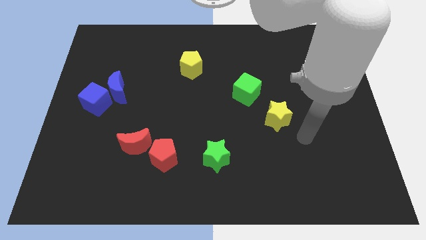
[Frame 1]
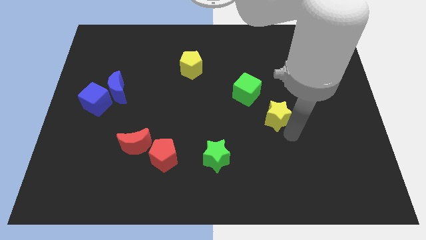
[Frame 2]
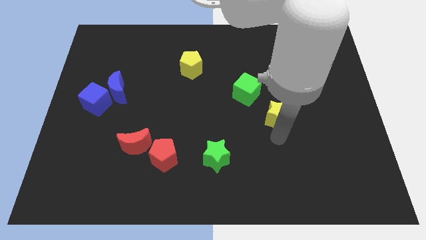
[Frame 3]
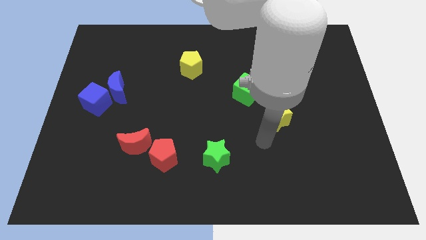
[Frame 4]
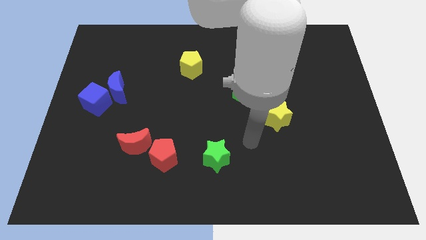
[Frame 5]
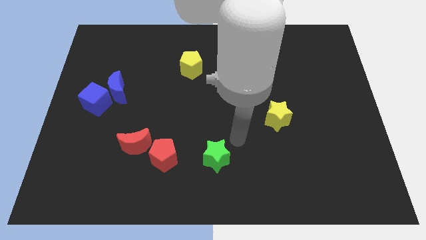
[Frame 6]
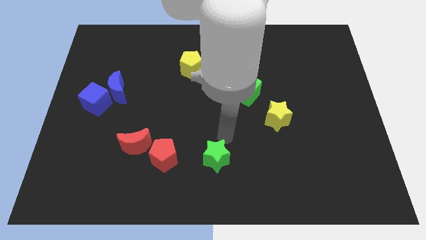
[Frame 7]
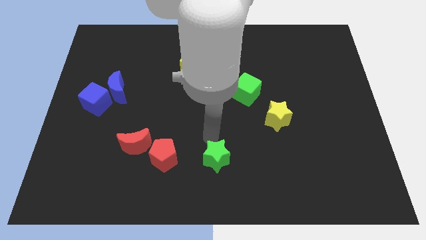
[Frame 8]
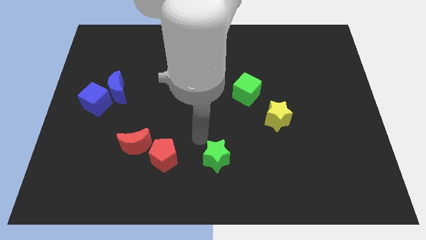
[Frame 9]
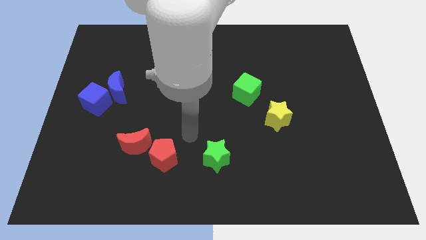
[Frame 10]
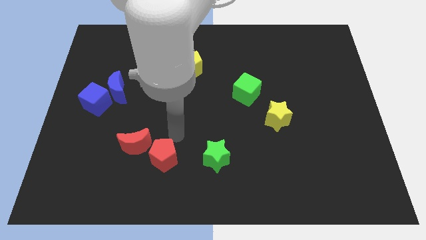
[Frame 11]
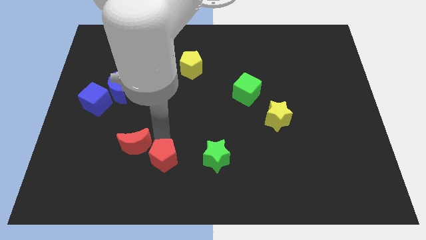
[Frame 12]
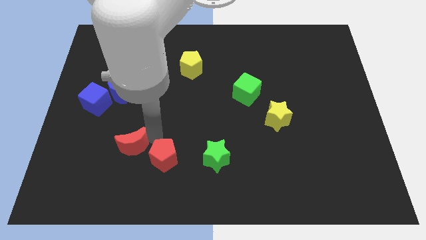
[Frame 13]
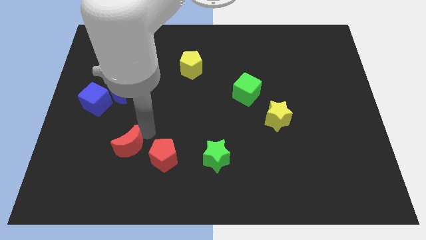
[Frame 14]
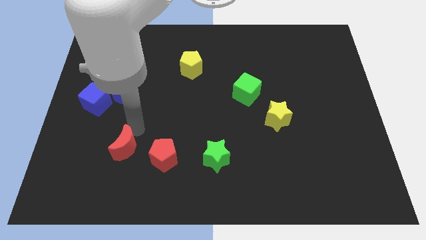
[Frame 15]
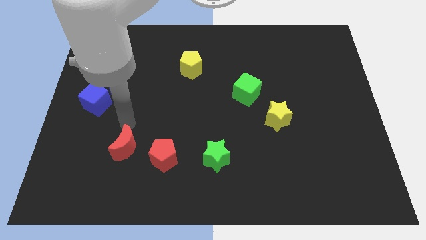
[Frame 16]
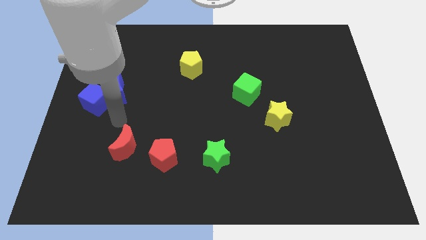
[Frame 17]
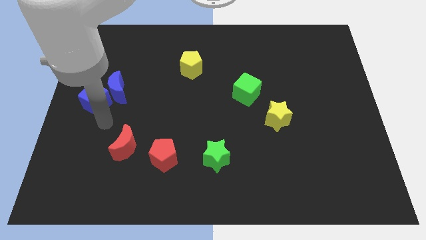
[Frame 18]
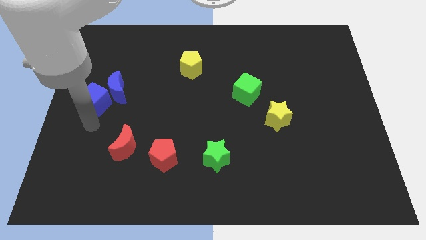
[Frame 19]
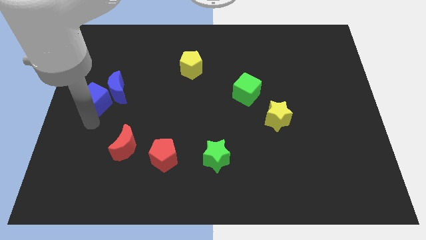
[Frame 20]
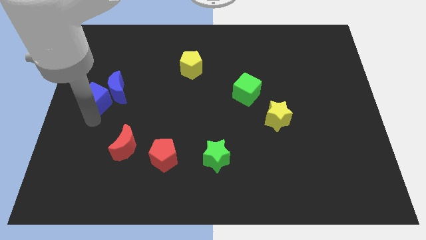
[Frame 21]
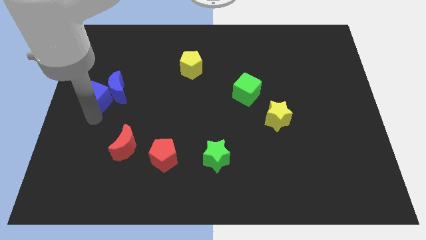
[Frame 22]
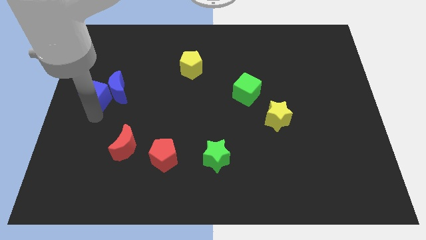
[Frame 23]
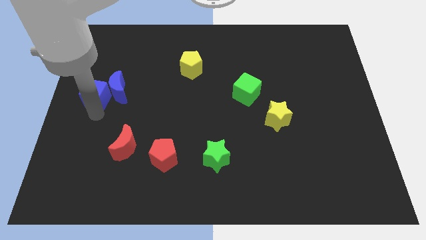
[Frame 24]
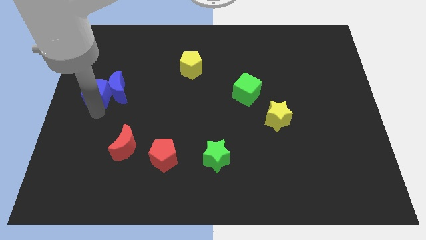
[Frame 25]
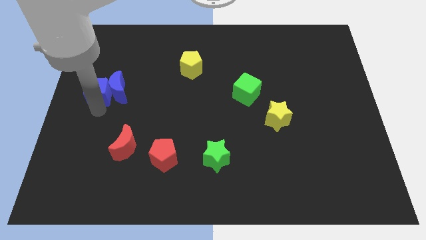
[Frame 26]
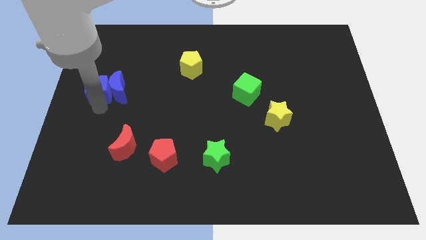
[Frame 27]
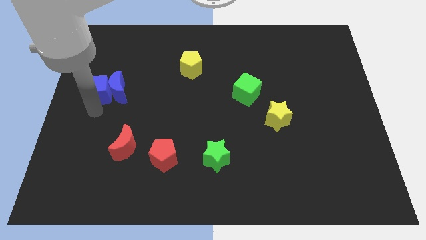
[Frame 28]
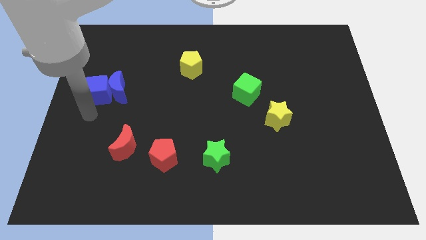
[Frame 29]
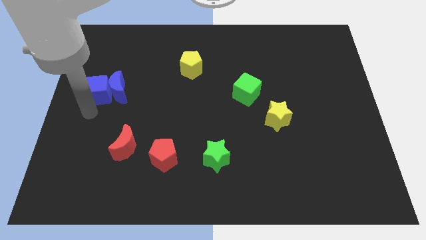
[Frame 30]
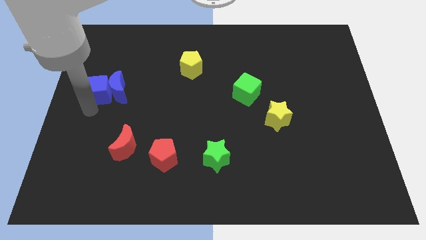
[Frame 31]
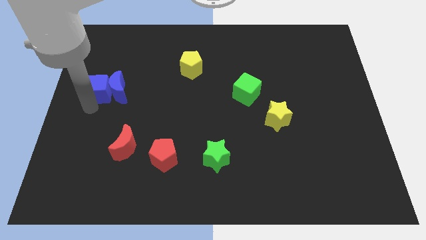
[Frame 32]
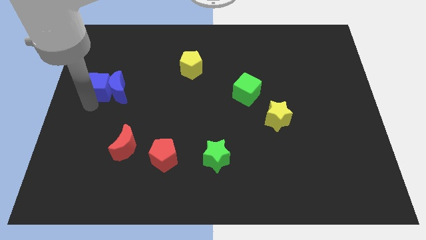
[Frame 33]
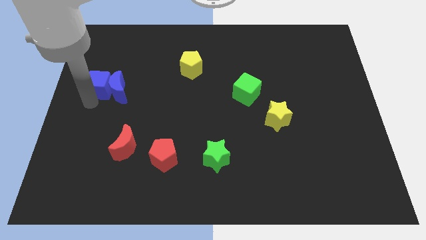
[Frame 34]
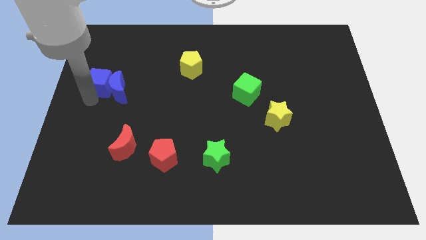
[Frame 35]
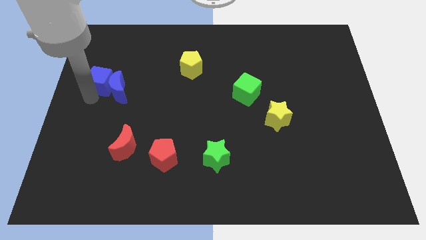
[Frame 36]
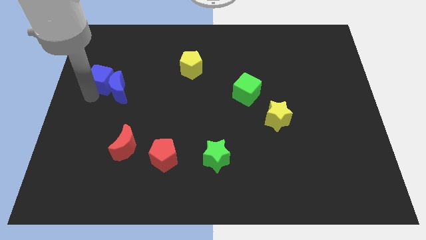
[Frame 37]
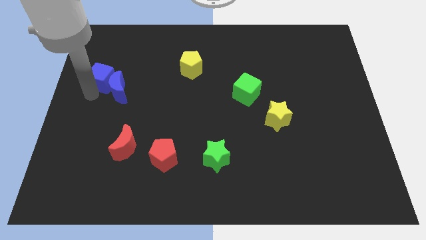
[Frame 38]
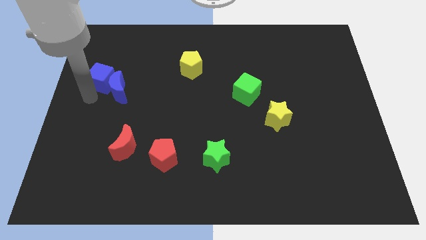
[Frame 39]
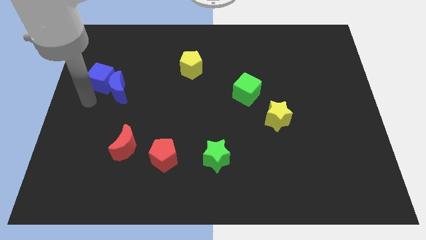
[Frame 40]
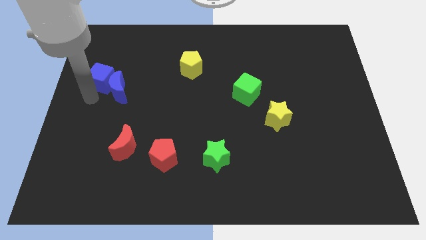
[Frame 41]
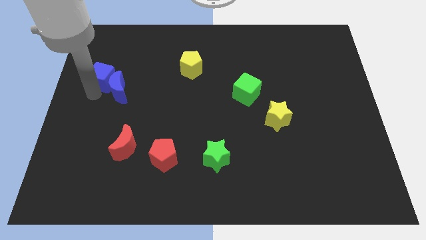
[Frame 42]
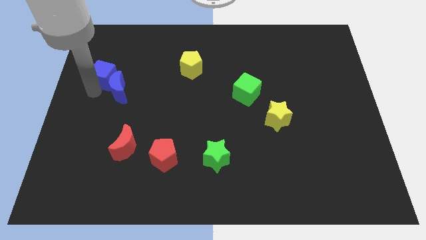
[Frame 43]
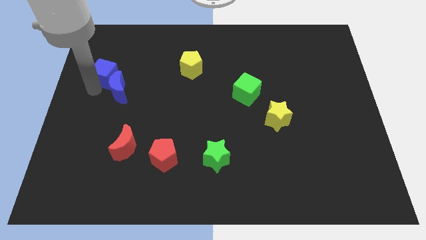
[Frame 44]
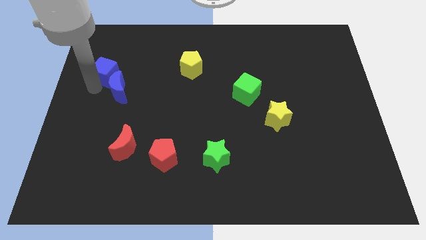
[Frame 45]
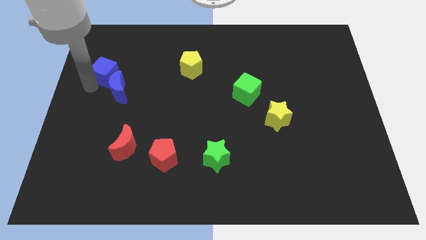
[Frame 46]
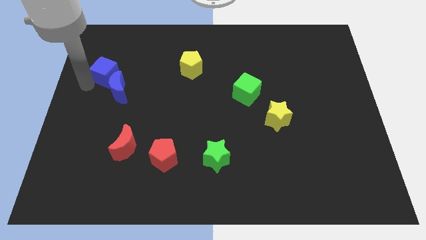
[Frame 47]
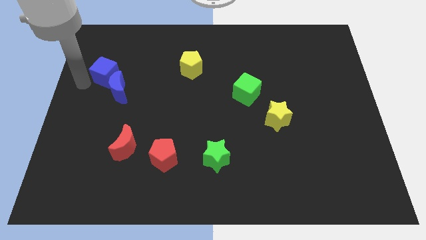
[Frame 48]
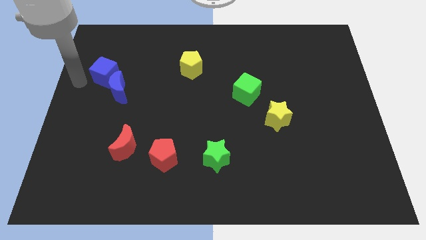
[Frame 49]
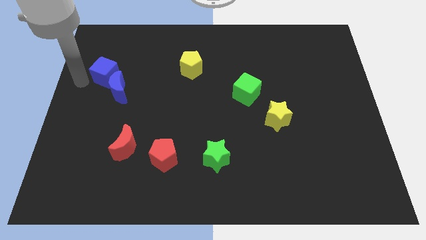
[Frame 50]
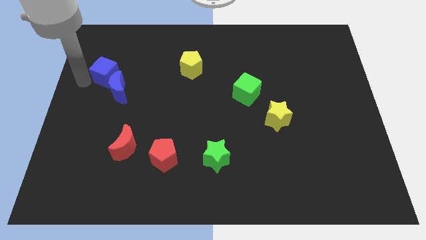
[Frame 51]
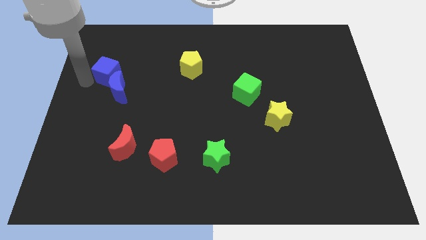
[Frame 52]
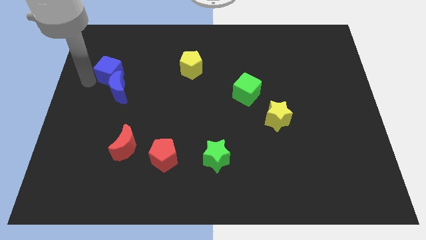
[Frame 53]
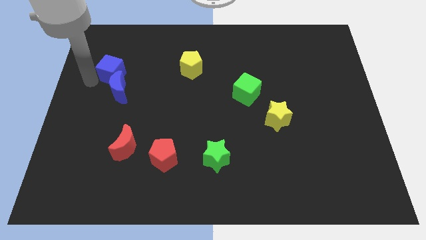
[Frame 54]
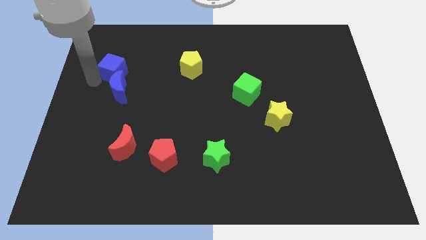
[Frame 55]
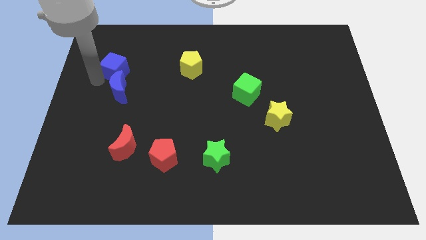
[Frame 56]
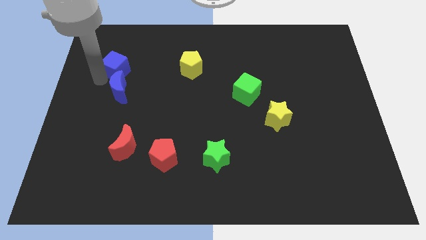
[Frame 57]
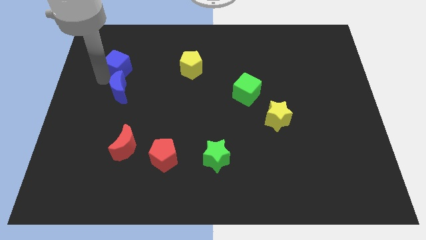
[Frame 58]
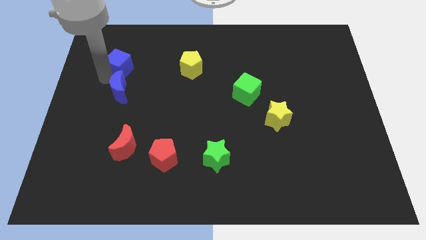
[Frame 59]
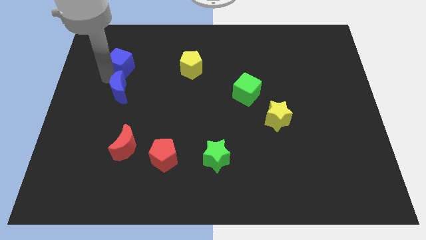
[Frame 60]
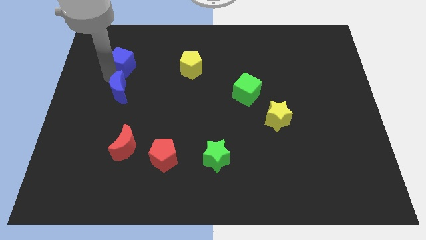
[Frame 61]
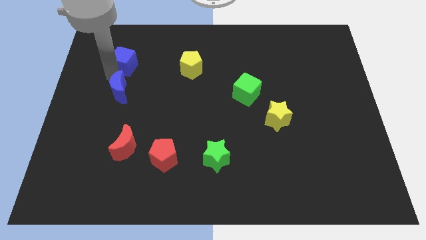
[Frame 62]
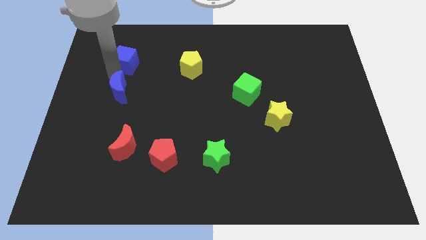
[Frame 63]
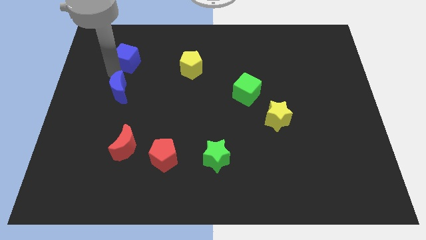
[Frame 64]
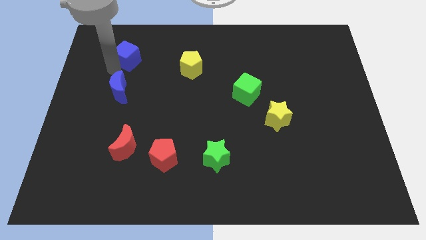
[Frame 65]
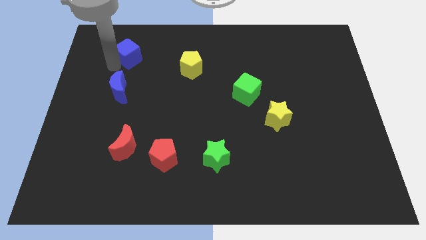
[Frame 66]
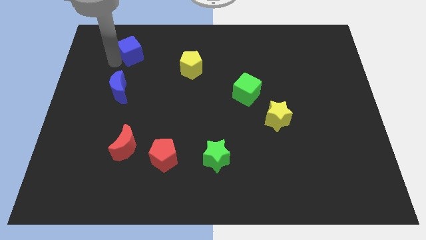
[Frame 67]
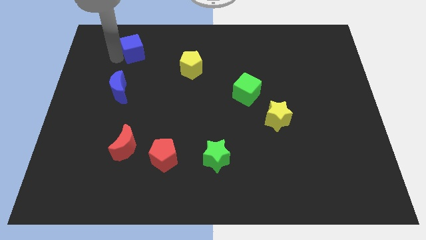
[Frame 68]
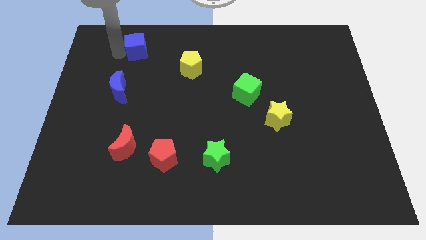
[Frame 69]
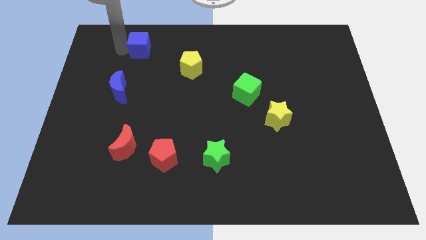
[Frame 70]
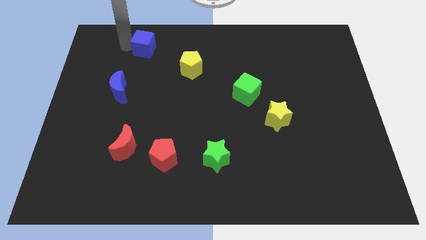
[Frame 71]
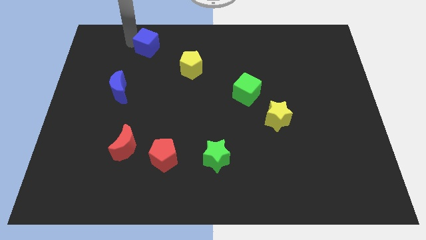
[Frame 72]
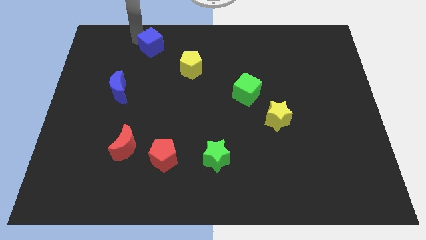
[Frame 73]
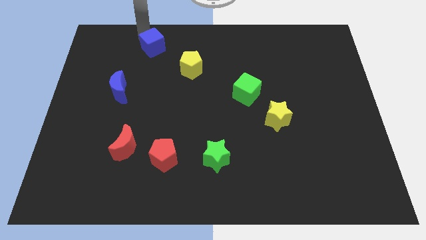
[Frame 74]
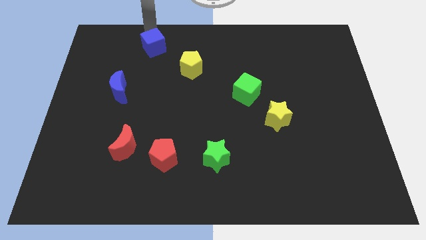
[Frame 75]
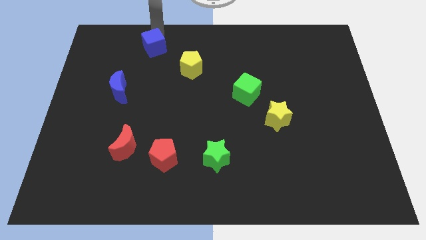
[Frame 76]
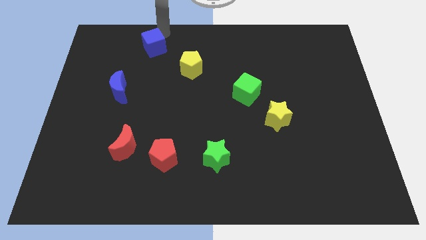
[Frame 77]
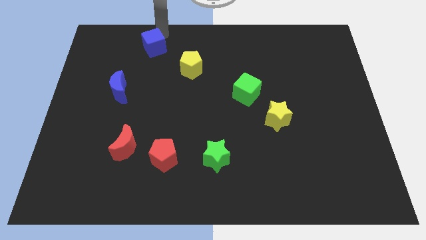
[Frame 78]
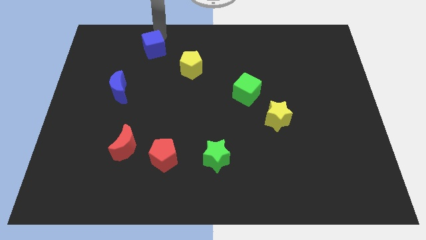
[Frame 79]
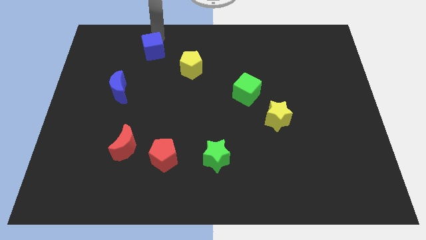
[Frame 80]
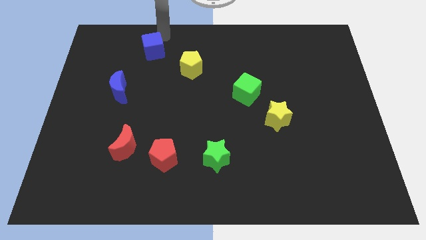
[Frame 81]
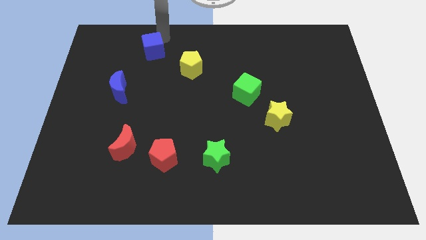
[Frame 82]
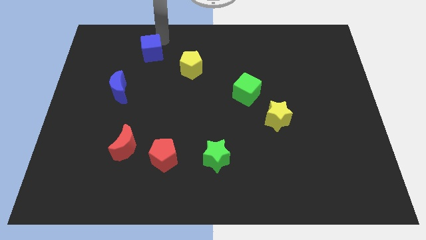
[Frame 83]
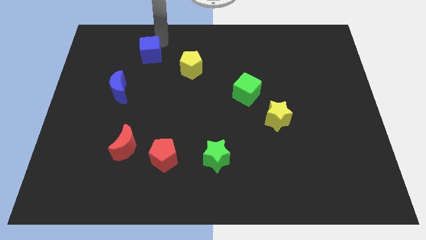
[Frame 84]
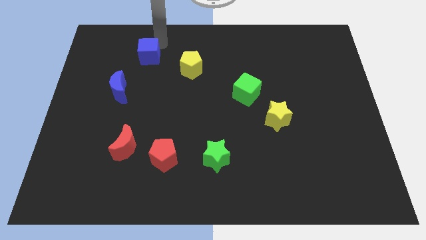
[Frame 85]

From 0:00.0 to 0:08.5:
slide the blue cube just left of the yellow pentagon
